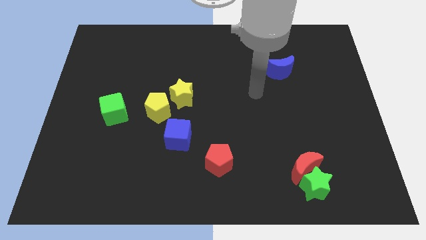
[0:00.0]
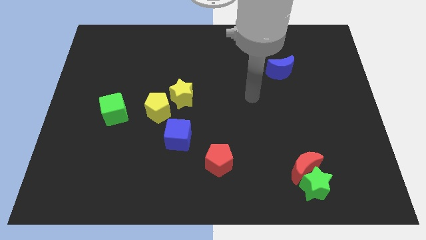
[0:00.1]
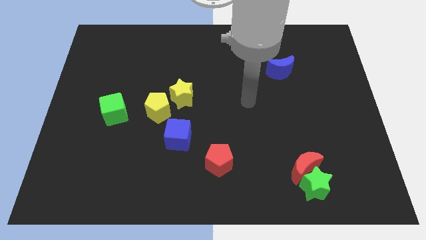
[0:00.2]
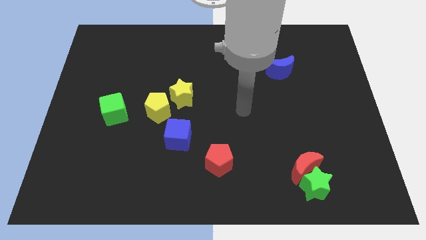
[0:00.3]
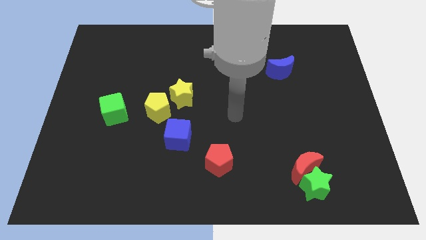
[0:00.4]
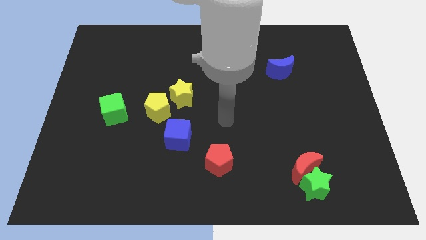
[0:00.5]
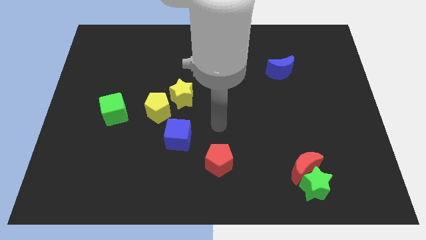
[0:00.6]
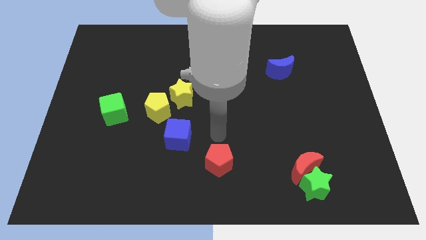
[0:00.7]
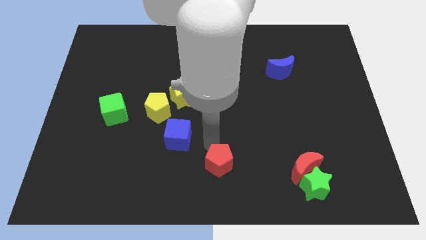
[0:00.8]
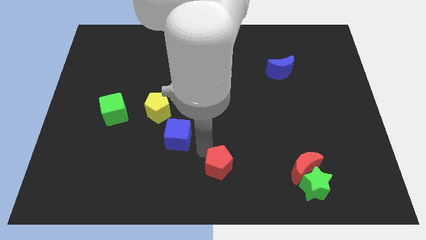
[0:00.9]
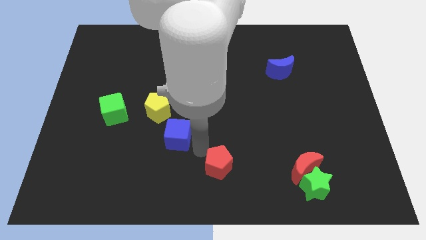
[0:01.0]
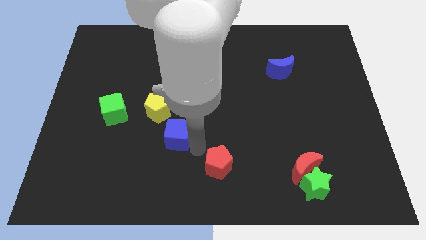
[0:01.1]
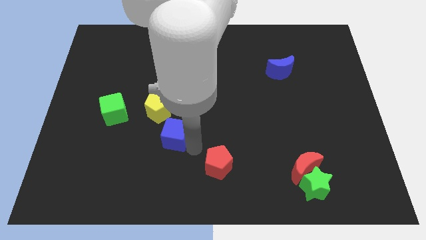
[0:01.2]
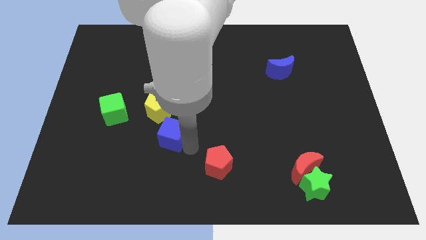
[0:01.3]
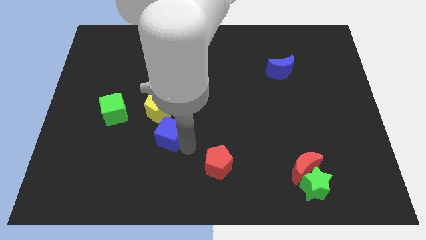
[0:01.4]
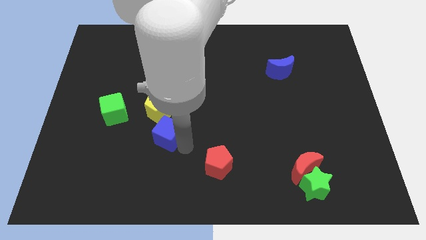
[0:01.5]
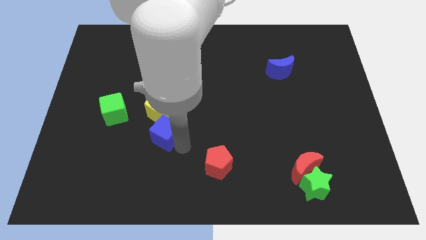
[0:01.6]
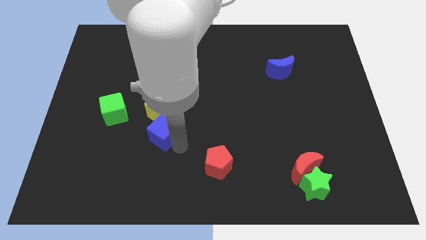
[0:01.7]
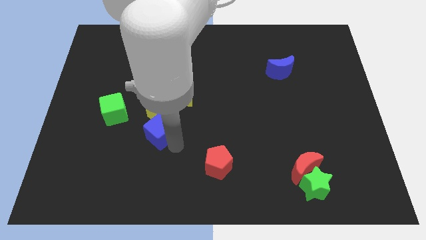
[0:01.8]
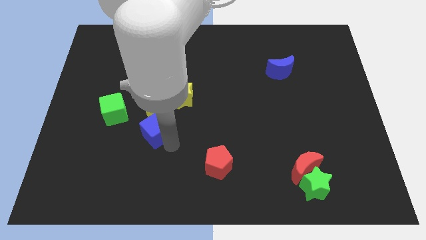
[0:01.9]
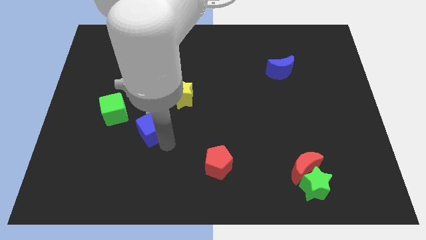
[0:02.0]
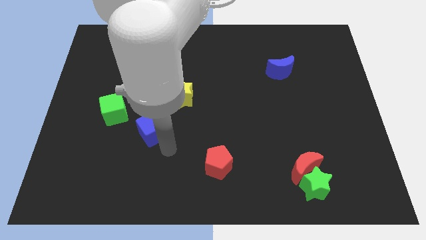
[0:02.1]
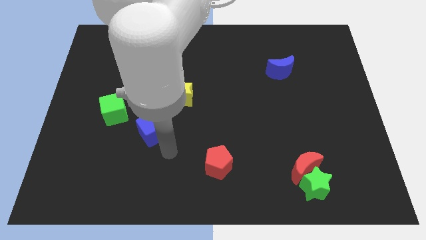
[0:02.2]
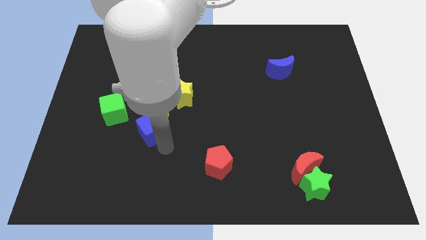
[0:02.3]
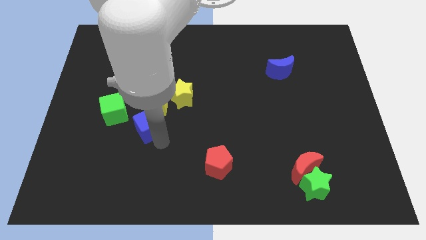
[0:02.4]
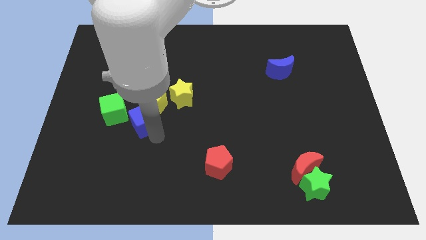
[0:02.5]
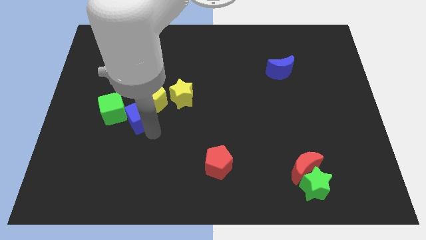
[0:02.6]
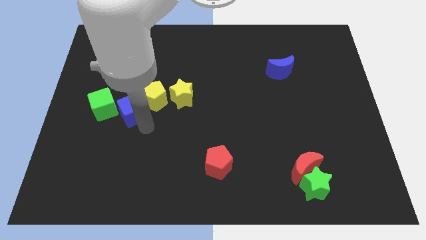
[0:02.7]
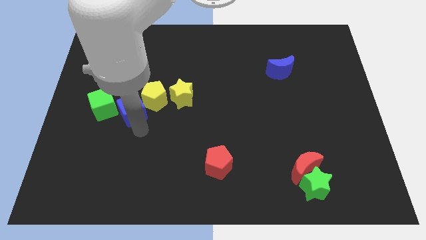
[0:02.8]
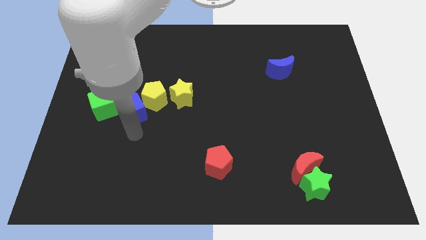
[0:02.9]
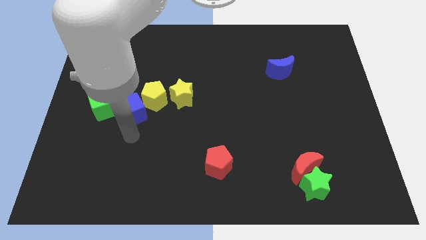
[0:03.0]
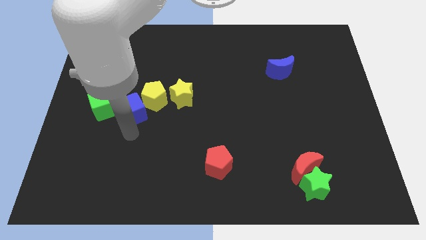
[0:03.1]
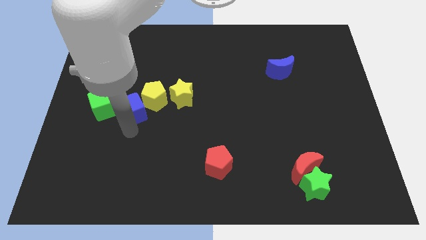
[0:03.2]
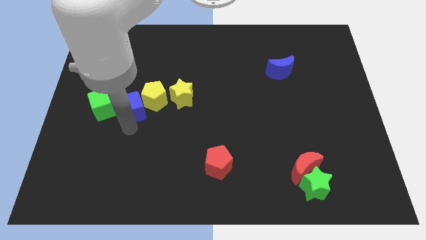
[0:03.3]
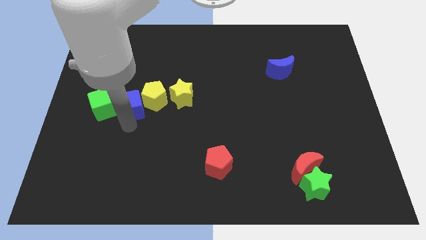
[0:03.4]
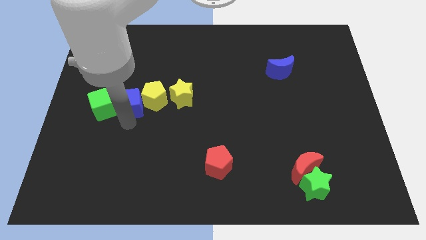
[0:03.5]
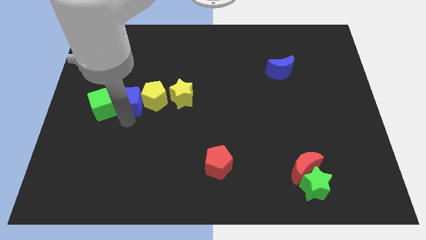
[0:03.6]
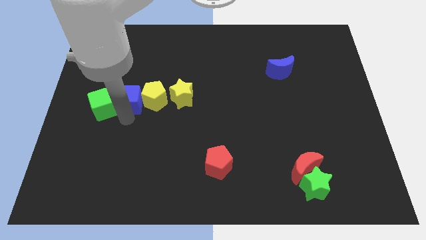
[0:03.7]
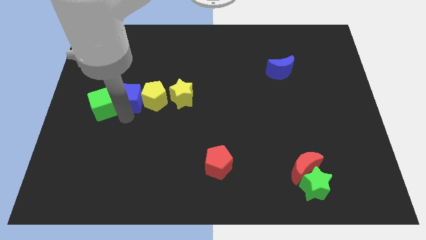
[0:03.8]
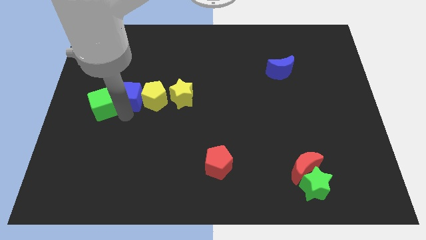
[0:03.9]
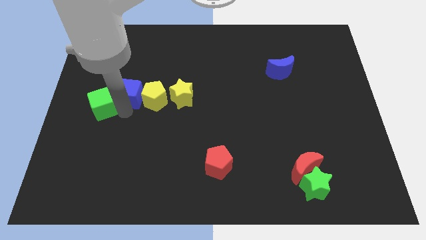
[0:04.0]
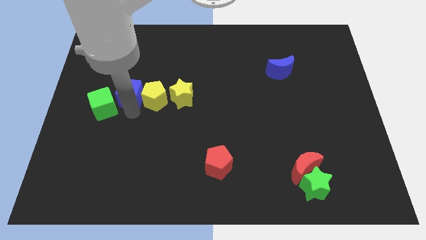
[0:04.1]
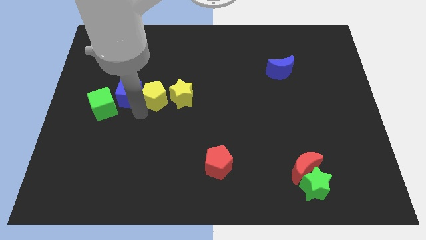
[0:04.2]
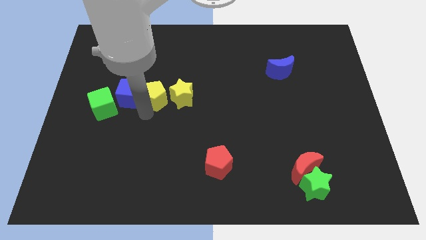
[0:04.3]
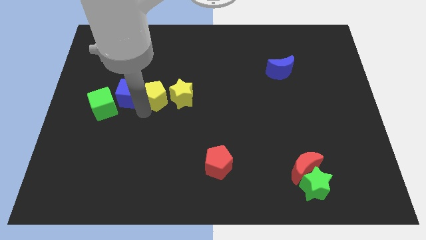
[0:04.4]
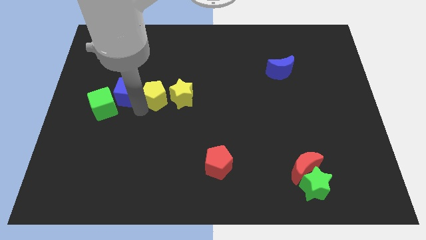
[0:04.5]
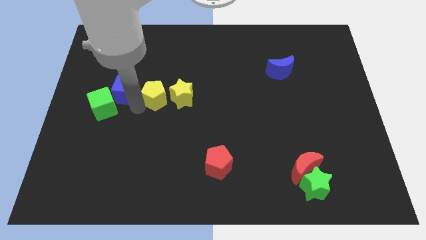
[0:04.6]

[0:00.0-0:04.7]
put the blue cube above the green cube

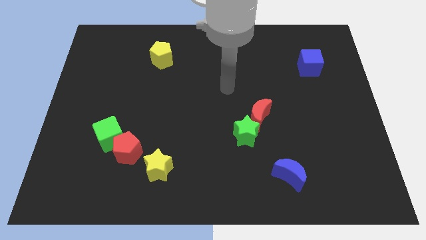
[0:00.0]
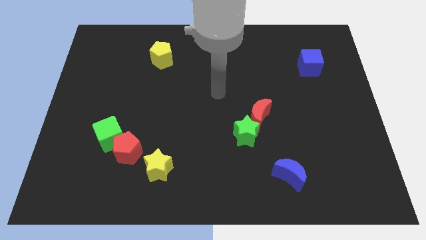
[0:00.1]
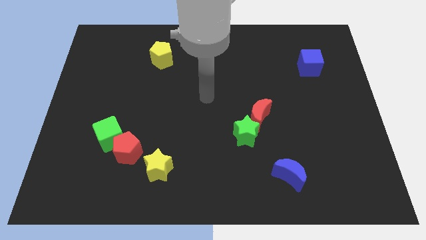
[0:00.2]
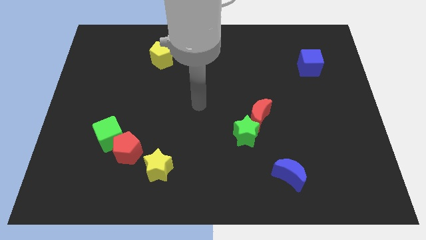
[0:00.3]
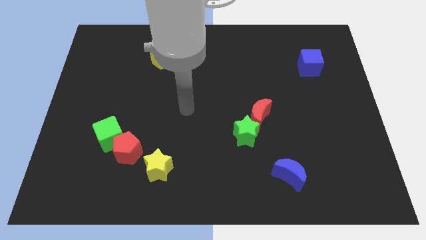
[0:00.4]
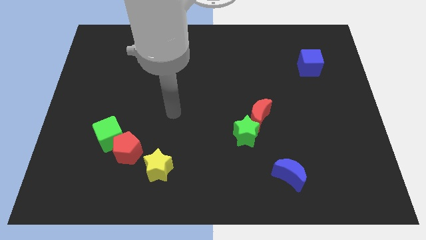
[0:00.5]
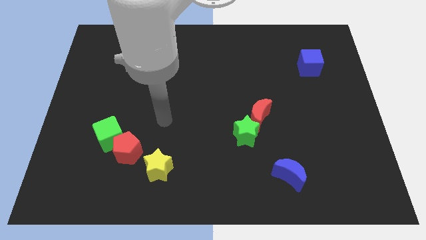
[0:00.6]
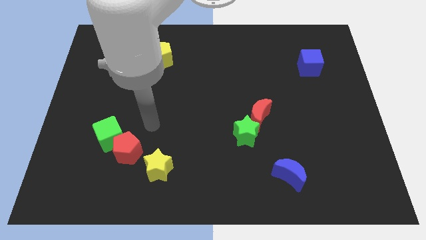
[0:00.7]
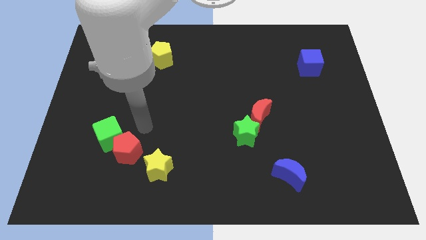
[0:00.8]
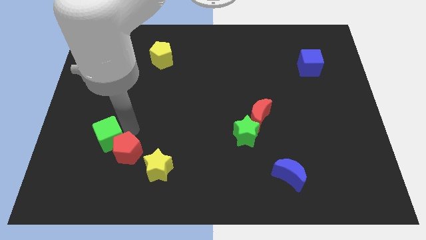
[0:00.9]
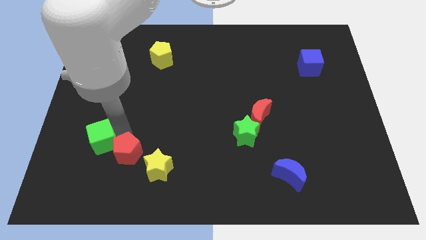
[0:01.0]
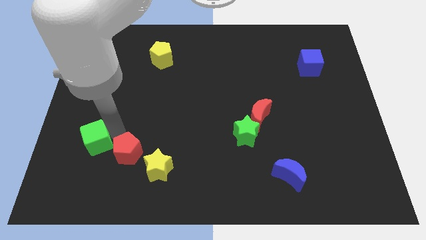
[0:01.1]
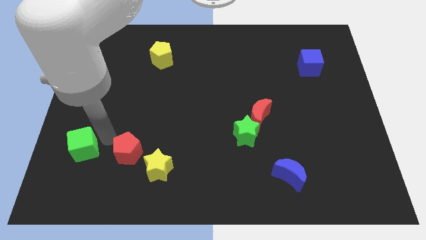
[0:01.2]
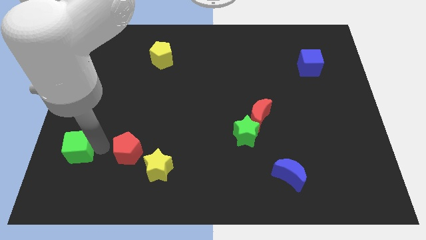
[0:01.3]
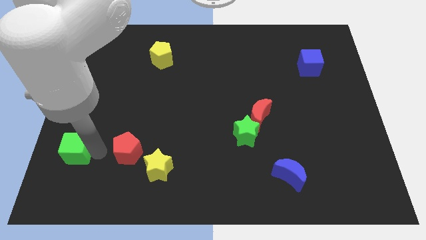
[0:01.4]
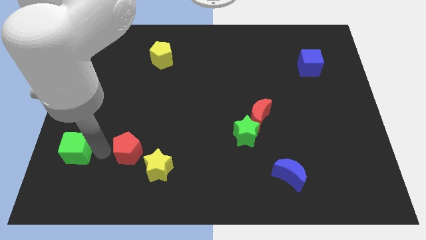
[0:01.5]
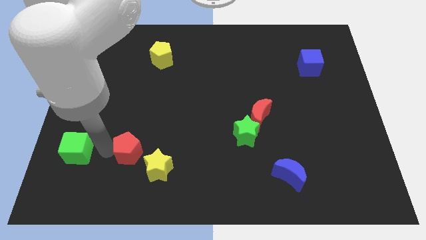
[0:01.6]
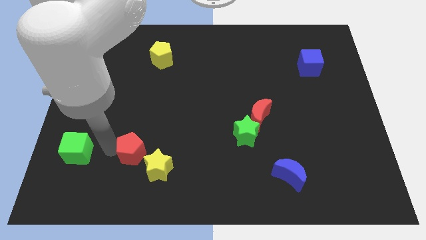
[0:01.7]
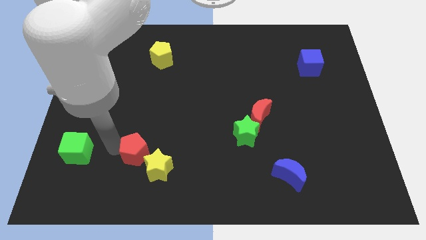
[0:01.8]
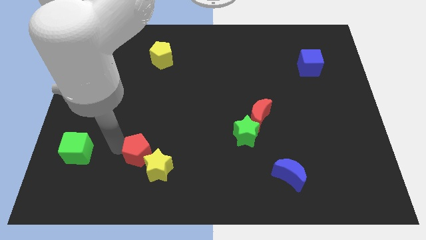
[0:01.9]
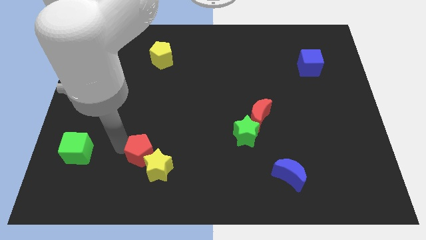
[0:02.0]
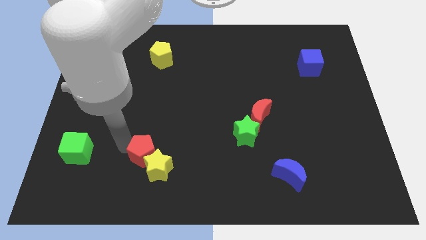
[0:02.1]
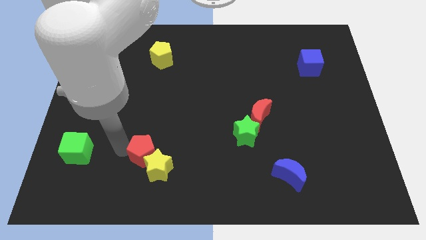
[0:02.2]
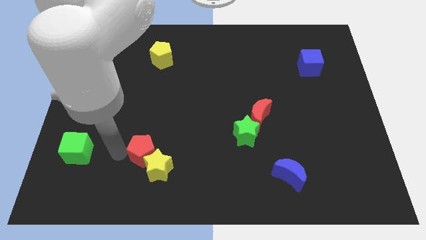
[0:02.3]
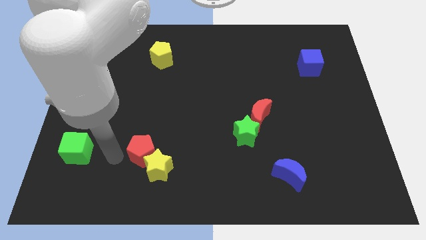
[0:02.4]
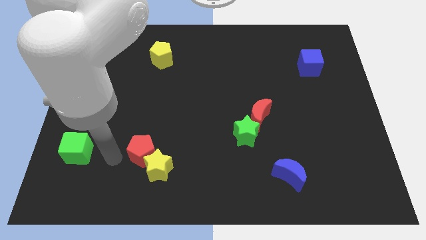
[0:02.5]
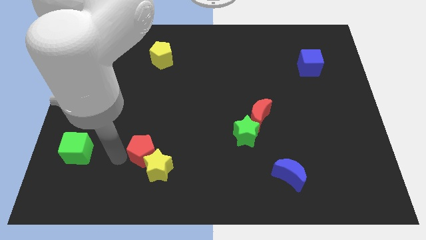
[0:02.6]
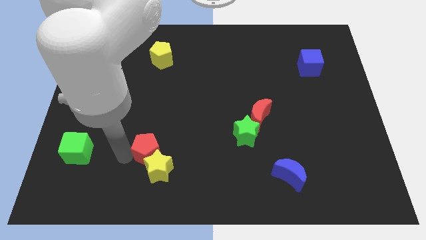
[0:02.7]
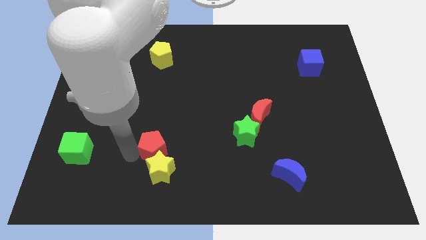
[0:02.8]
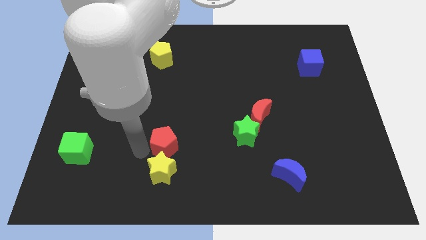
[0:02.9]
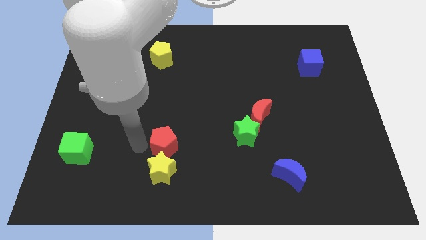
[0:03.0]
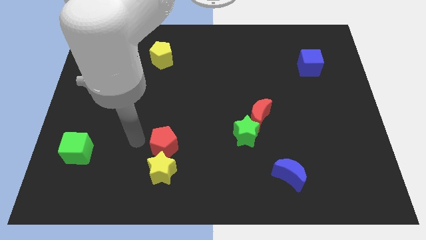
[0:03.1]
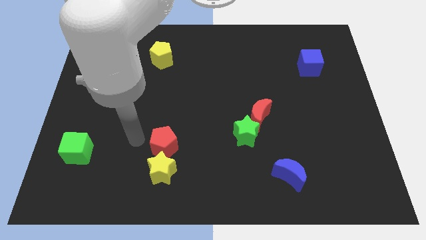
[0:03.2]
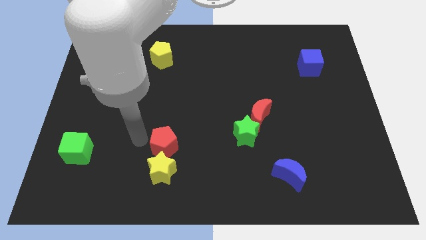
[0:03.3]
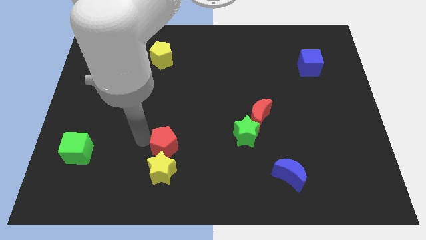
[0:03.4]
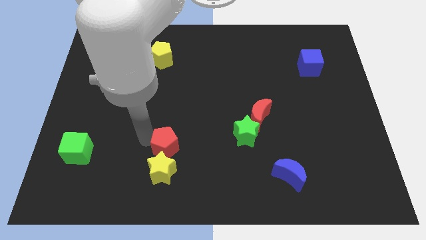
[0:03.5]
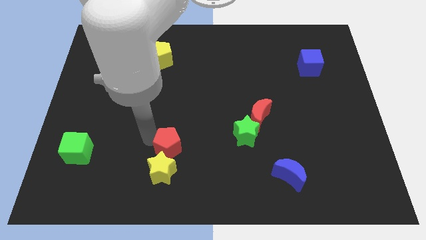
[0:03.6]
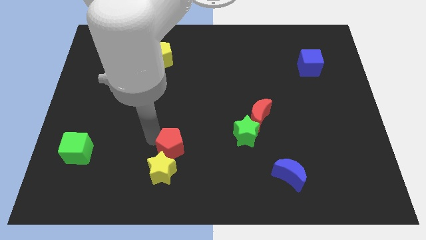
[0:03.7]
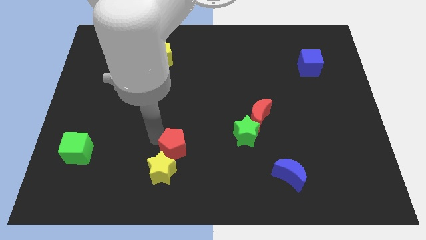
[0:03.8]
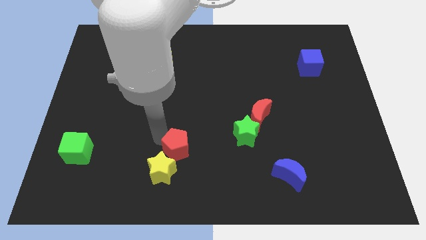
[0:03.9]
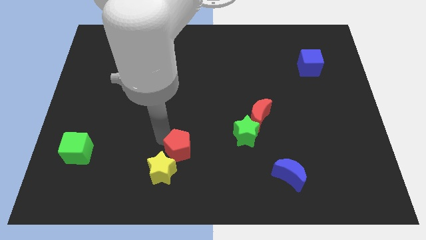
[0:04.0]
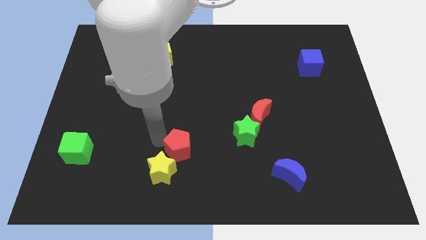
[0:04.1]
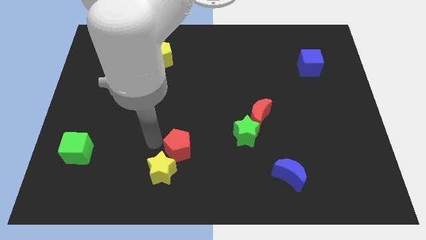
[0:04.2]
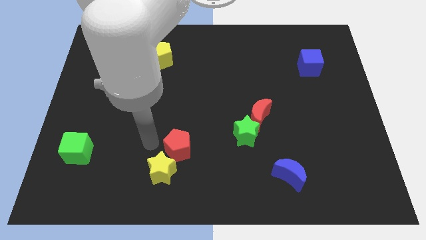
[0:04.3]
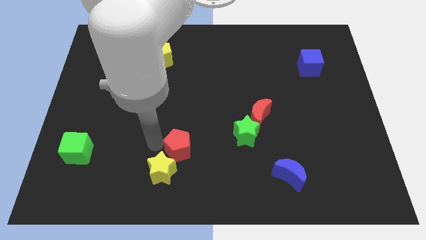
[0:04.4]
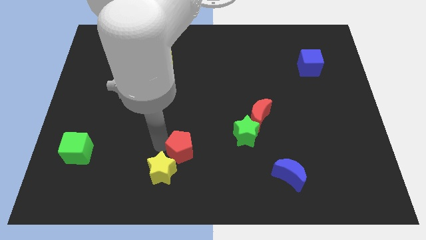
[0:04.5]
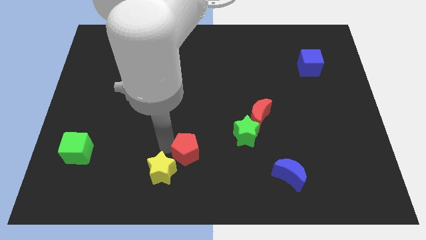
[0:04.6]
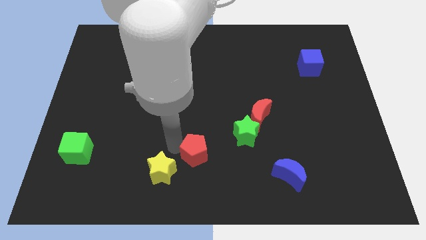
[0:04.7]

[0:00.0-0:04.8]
put the red pentagon to the right of the yellow star
